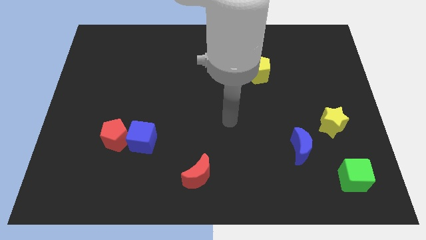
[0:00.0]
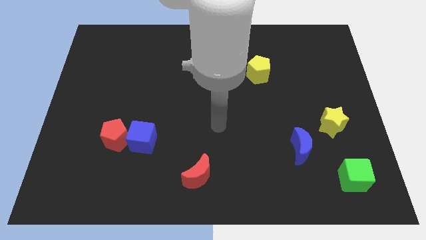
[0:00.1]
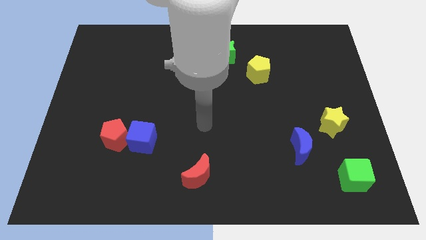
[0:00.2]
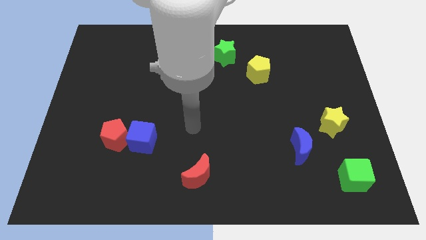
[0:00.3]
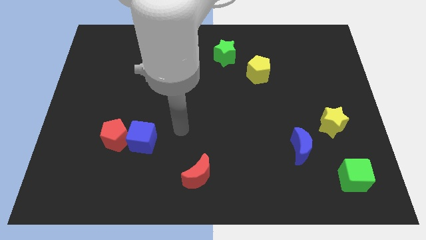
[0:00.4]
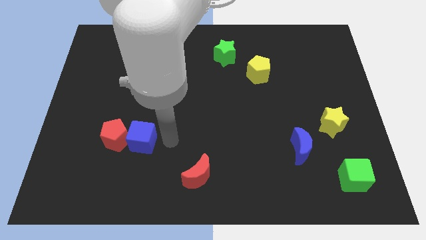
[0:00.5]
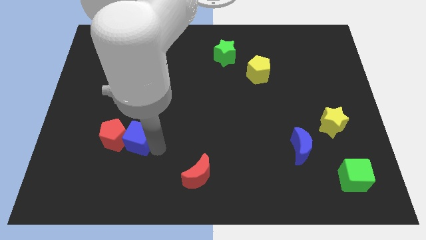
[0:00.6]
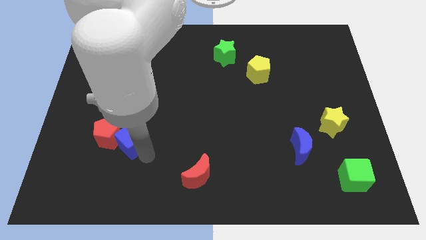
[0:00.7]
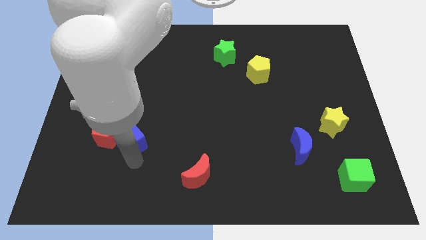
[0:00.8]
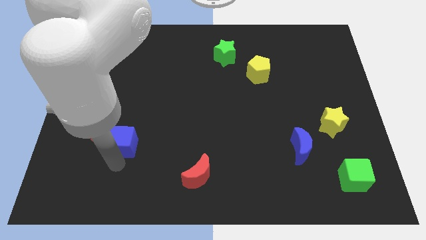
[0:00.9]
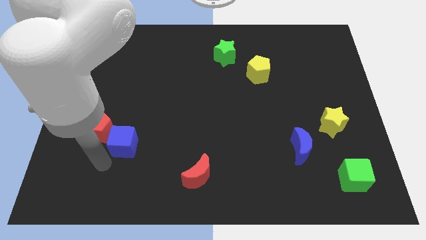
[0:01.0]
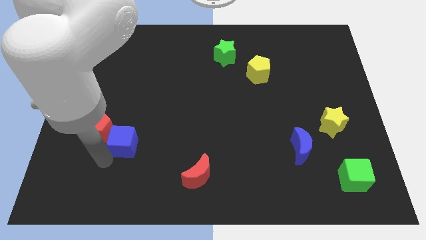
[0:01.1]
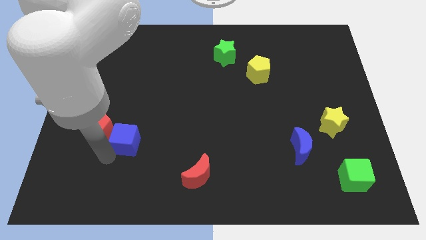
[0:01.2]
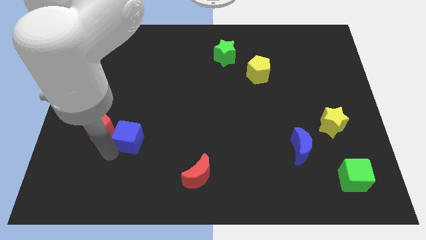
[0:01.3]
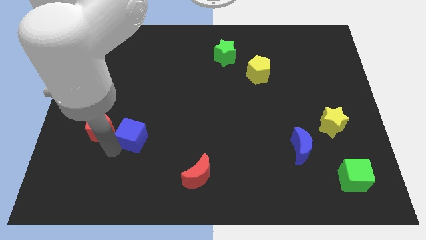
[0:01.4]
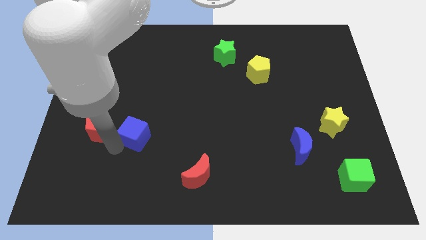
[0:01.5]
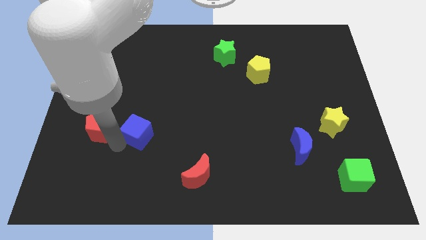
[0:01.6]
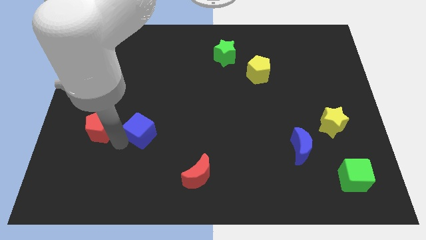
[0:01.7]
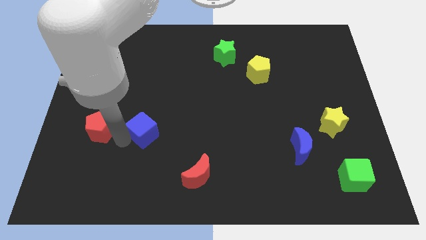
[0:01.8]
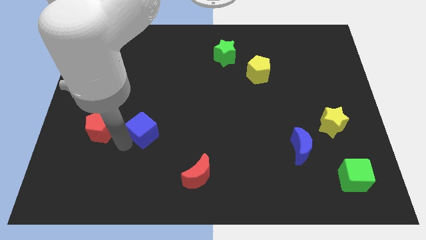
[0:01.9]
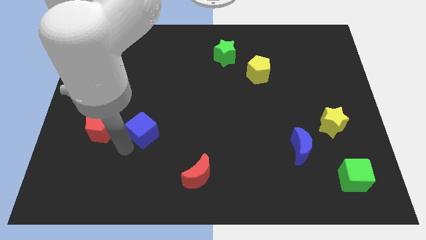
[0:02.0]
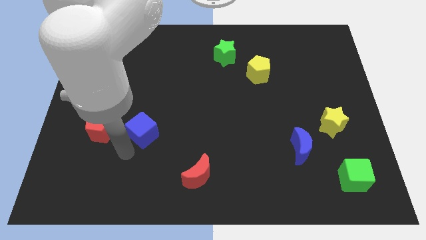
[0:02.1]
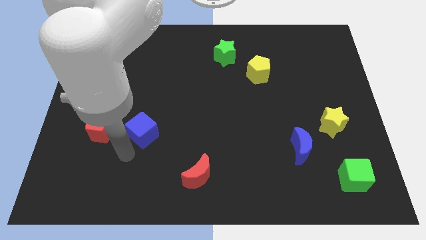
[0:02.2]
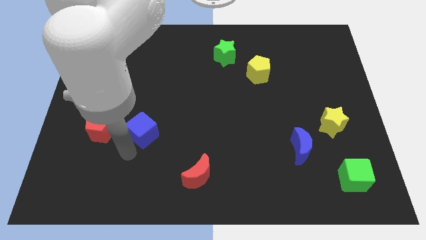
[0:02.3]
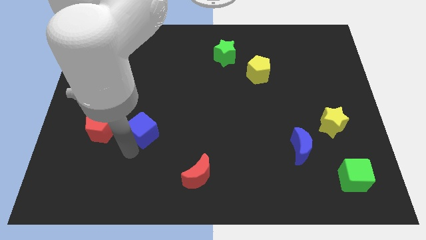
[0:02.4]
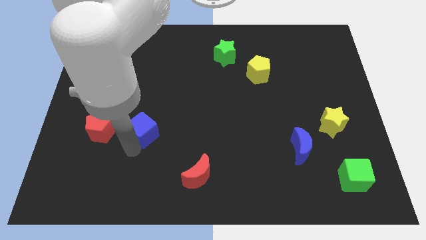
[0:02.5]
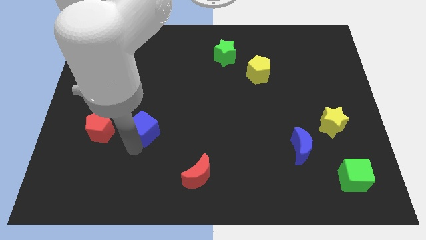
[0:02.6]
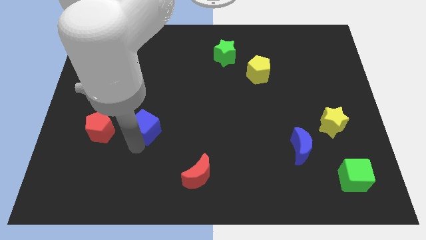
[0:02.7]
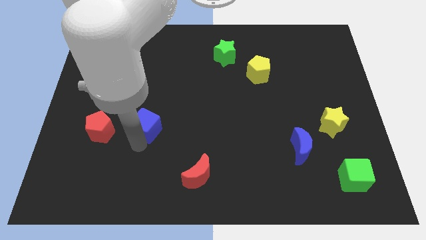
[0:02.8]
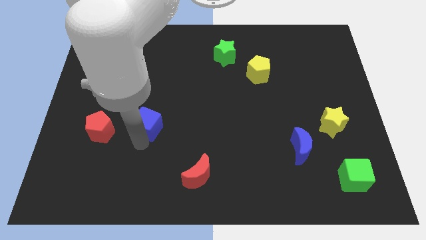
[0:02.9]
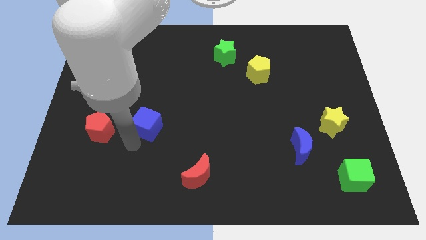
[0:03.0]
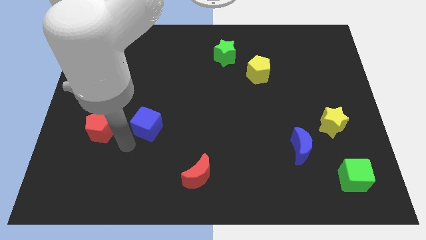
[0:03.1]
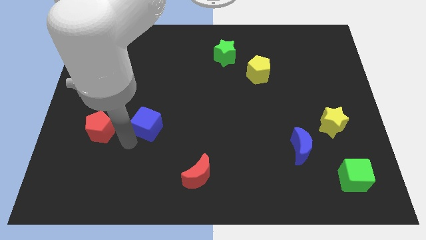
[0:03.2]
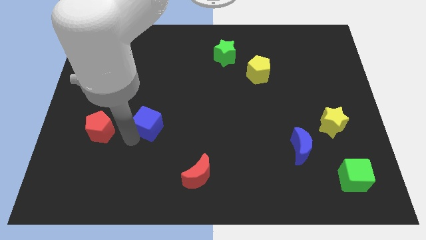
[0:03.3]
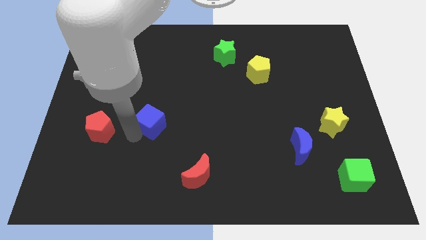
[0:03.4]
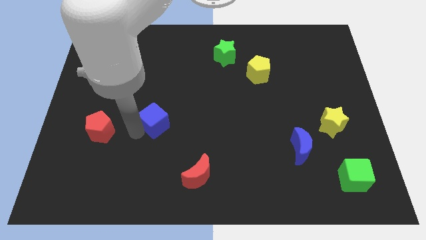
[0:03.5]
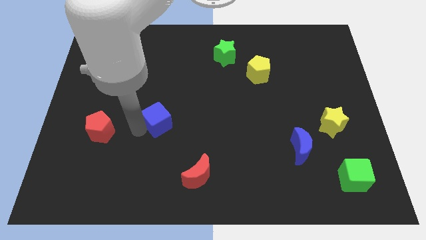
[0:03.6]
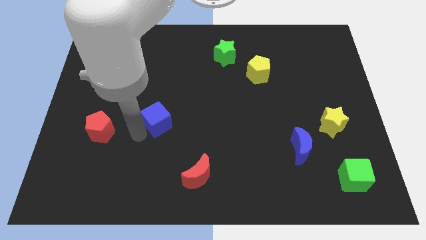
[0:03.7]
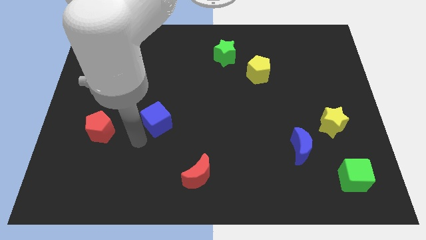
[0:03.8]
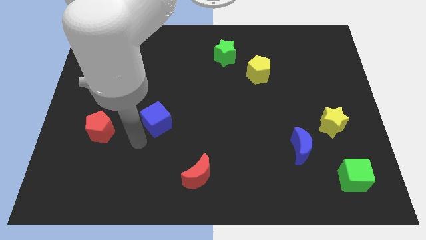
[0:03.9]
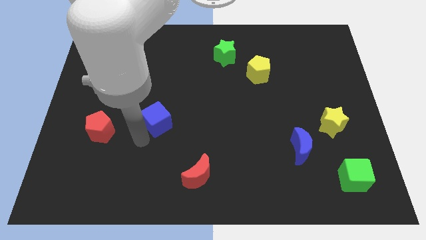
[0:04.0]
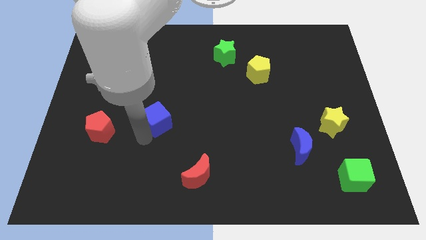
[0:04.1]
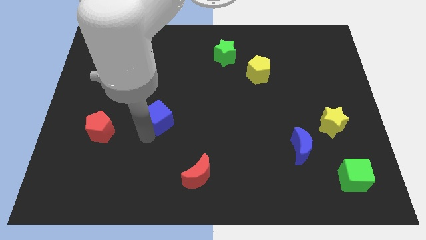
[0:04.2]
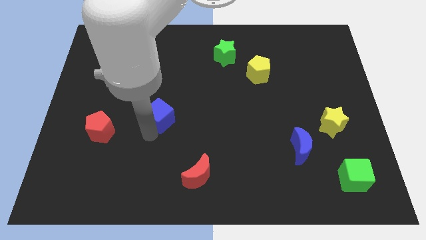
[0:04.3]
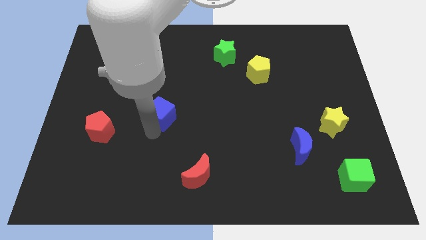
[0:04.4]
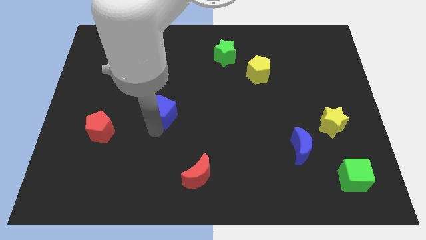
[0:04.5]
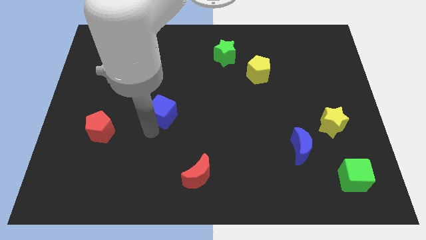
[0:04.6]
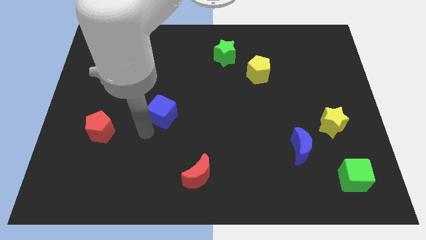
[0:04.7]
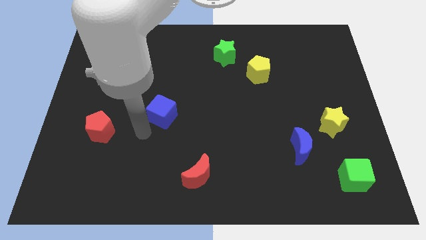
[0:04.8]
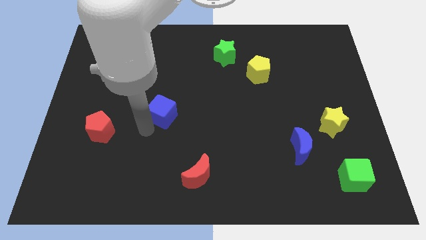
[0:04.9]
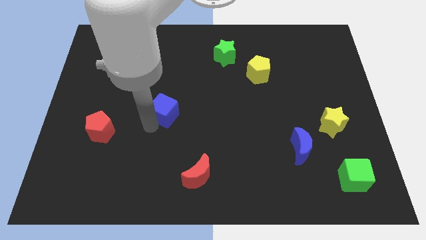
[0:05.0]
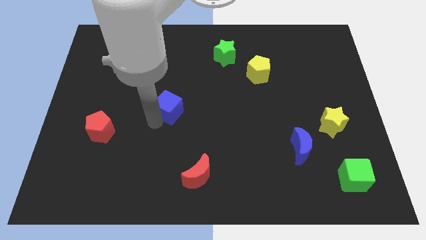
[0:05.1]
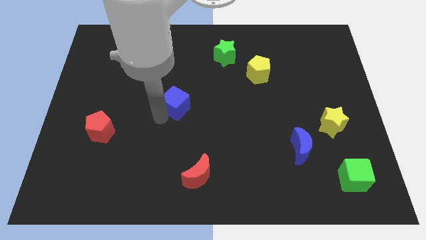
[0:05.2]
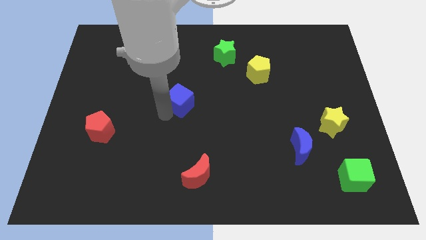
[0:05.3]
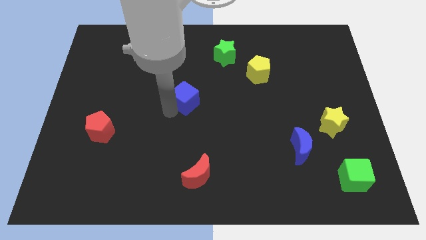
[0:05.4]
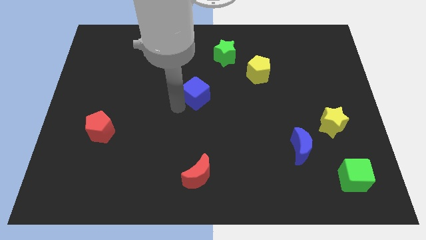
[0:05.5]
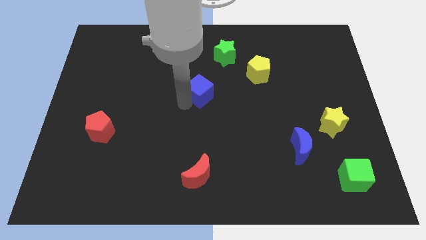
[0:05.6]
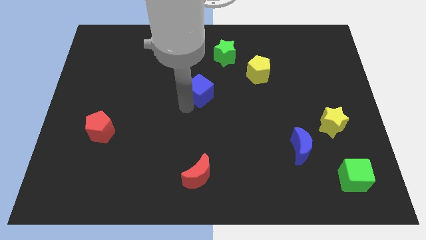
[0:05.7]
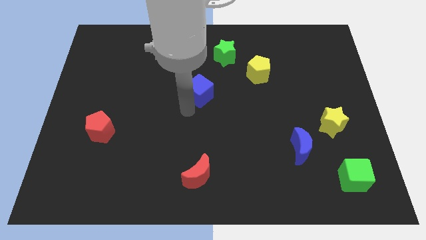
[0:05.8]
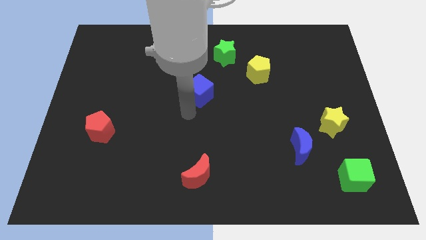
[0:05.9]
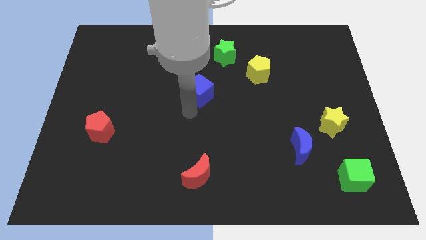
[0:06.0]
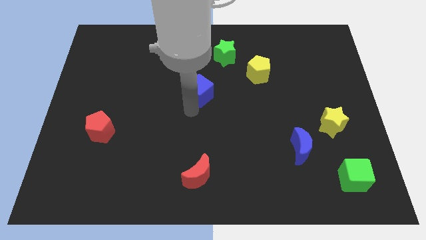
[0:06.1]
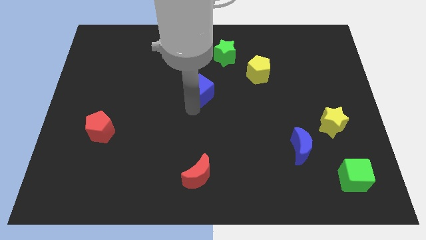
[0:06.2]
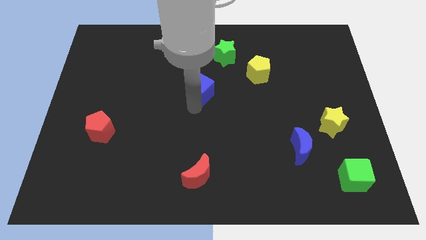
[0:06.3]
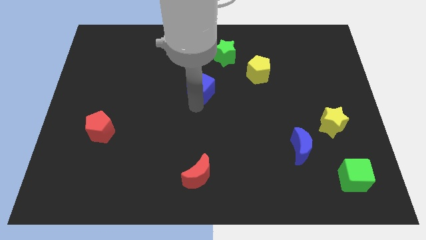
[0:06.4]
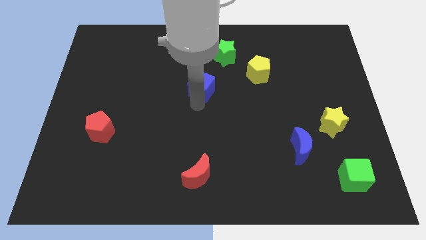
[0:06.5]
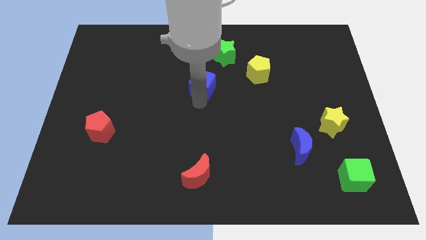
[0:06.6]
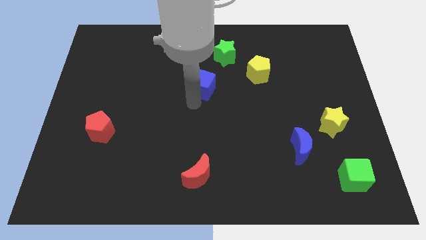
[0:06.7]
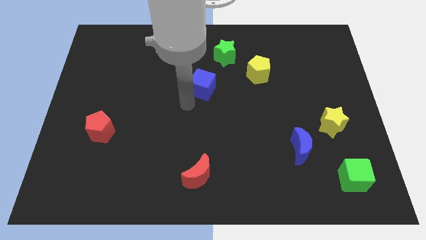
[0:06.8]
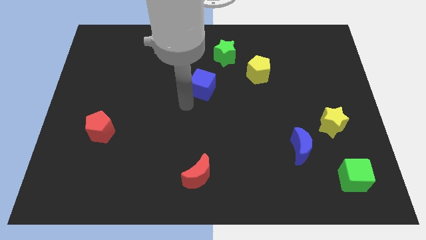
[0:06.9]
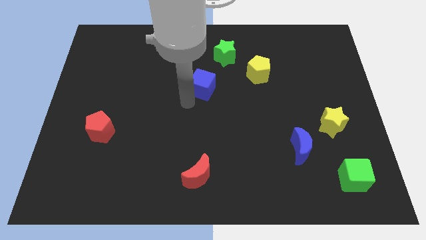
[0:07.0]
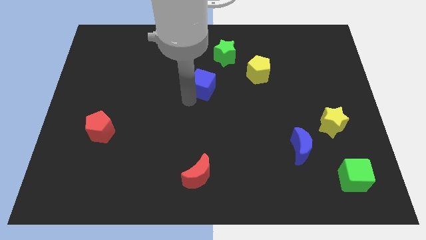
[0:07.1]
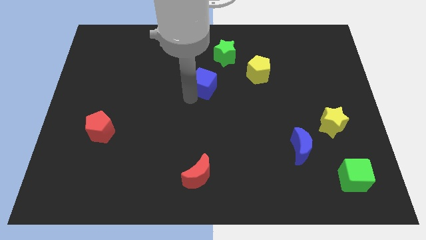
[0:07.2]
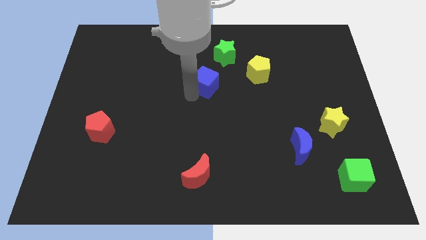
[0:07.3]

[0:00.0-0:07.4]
move the blue cube left of the yellow pentagon

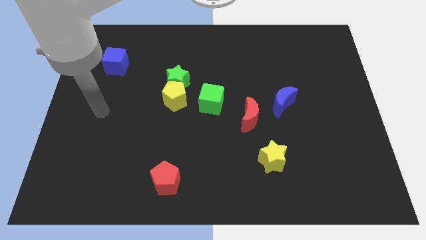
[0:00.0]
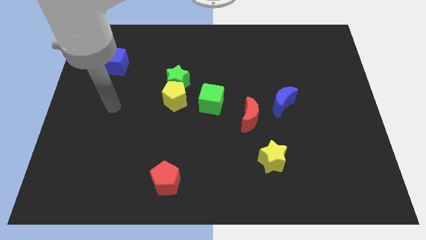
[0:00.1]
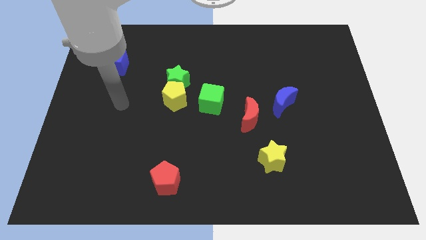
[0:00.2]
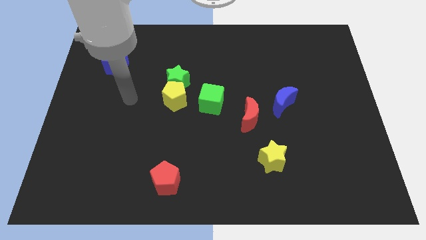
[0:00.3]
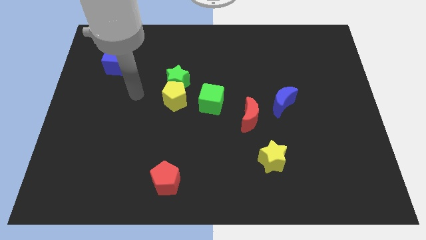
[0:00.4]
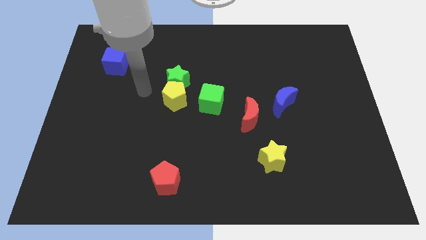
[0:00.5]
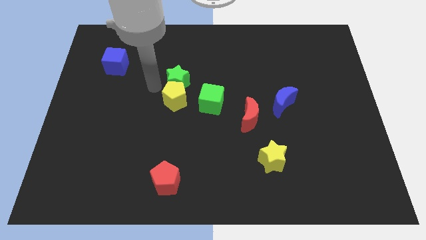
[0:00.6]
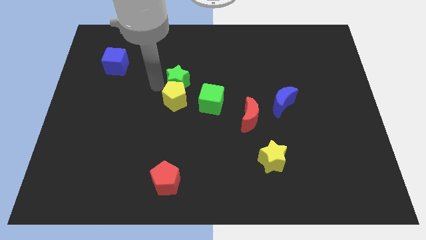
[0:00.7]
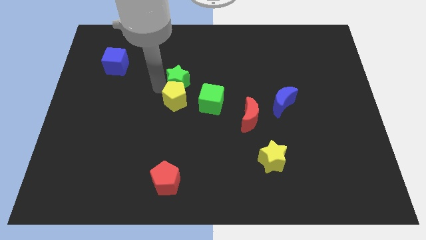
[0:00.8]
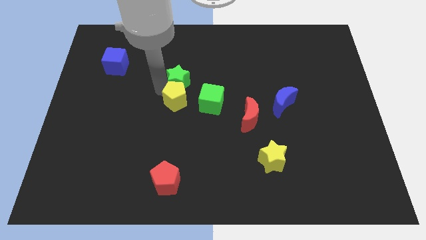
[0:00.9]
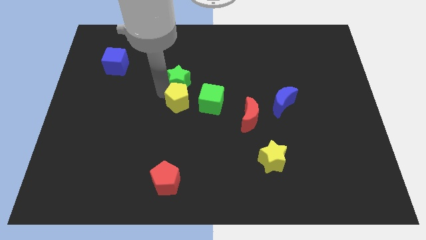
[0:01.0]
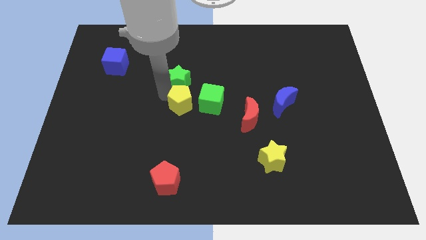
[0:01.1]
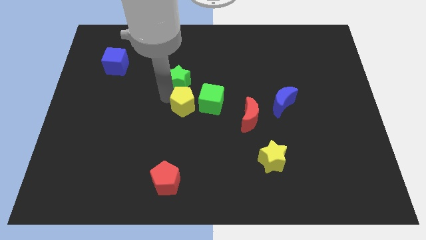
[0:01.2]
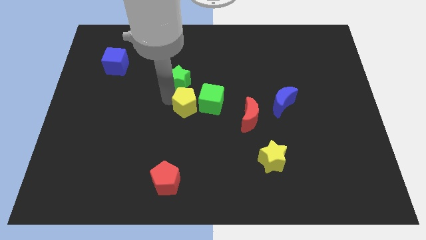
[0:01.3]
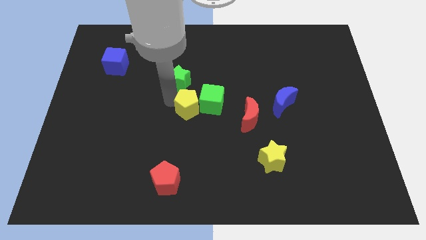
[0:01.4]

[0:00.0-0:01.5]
put the yellow pentagon just left of the red moon
